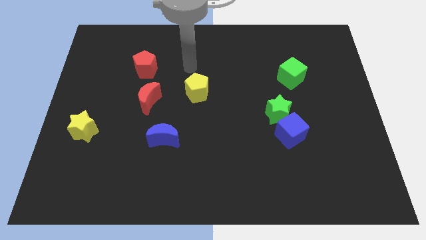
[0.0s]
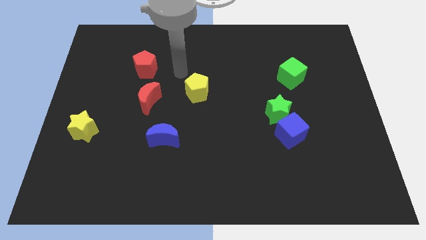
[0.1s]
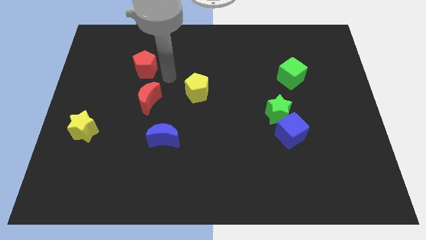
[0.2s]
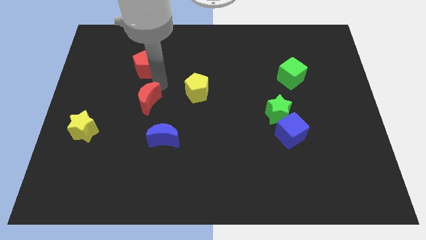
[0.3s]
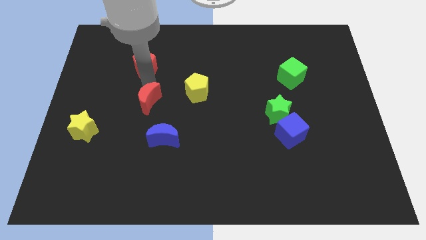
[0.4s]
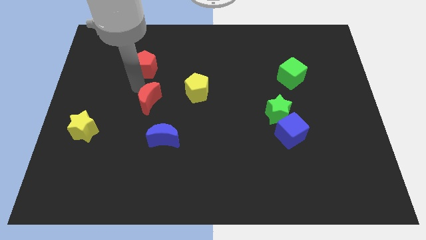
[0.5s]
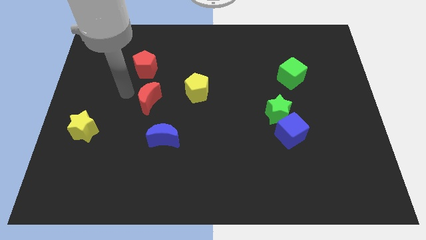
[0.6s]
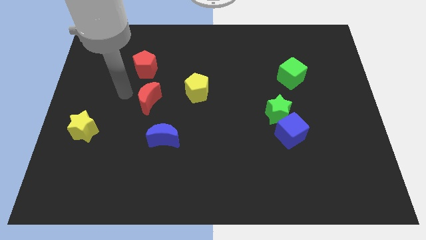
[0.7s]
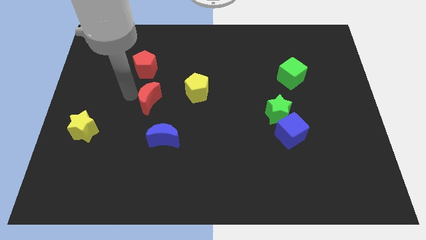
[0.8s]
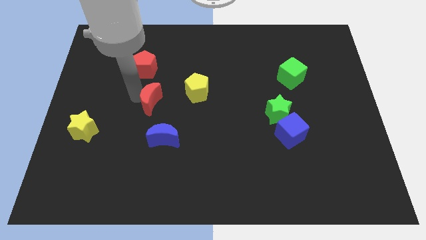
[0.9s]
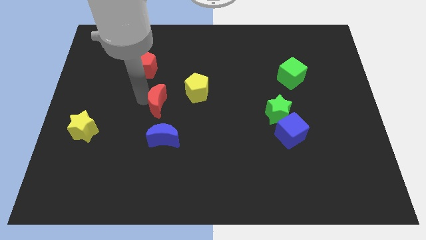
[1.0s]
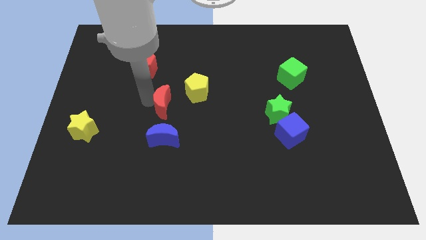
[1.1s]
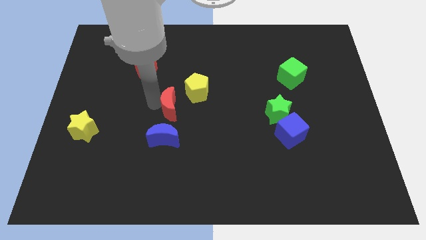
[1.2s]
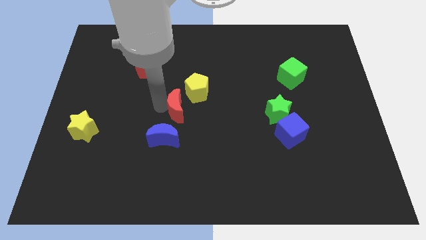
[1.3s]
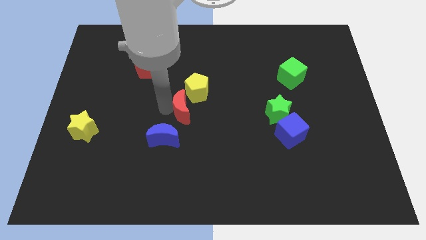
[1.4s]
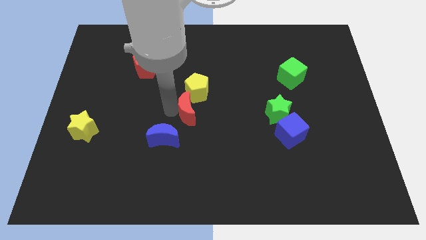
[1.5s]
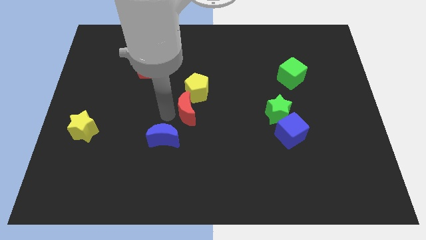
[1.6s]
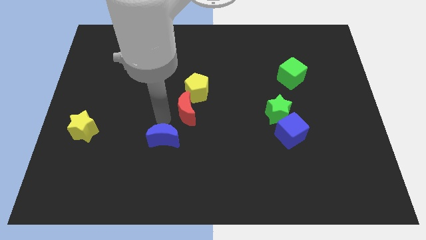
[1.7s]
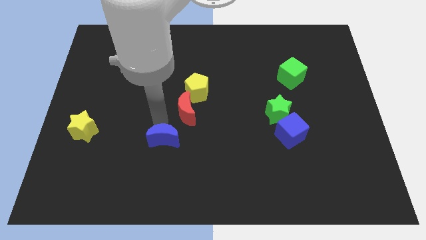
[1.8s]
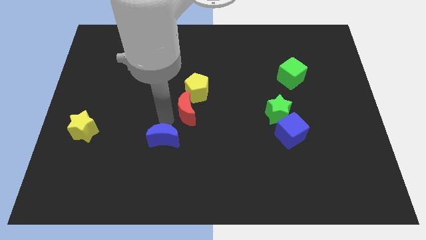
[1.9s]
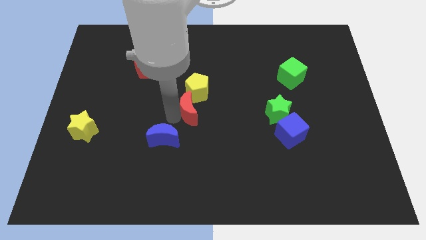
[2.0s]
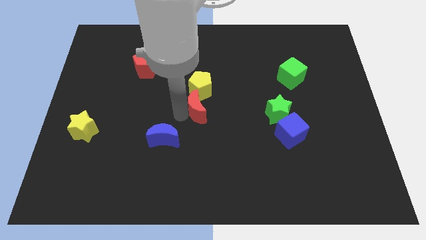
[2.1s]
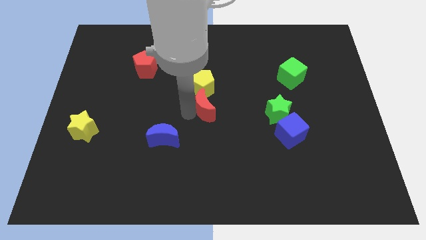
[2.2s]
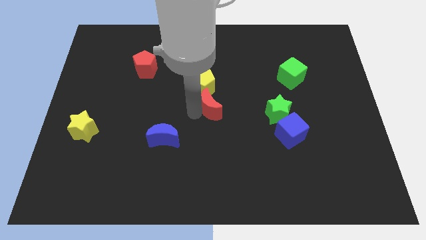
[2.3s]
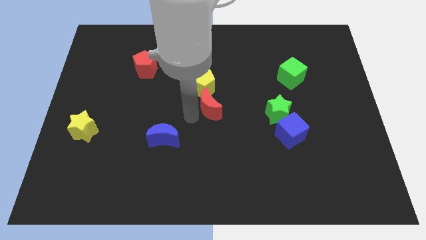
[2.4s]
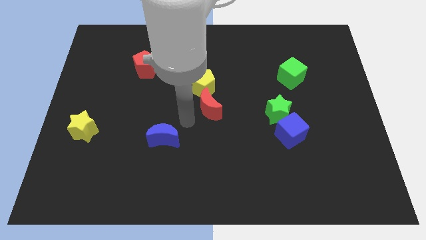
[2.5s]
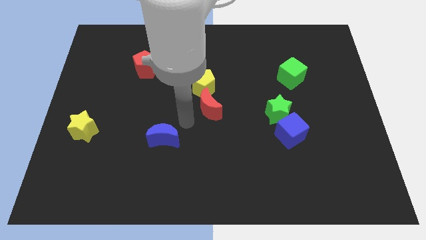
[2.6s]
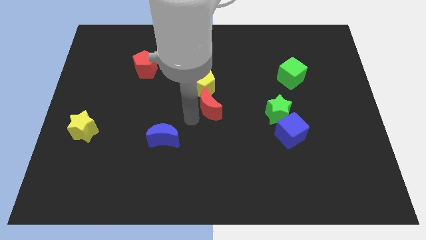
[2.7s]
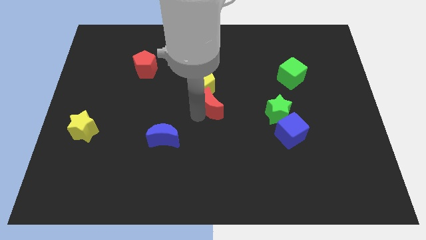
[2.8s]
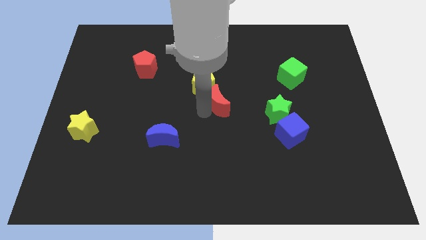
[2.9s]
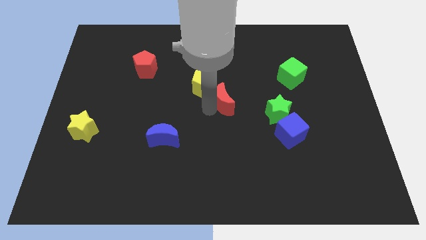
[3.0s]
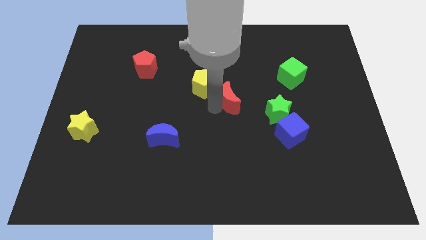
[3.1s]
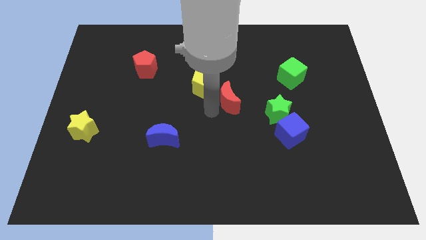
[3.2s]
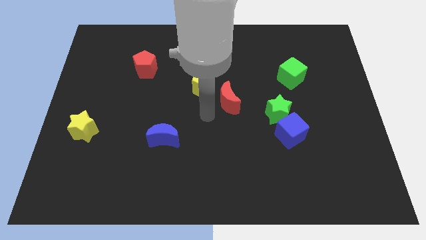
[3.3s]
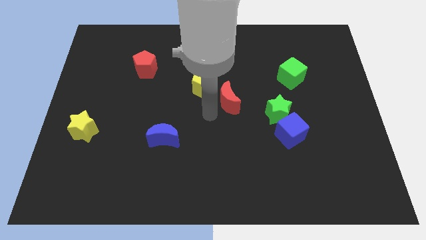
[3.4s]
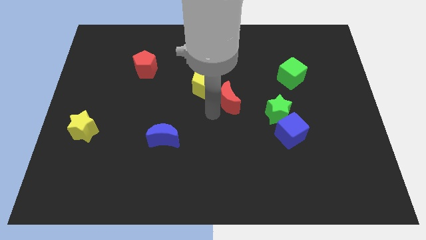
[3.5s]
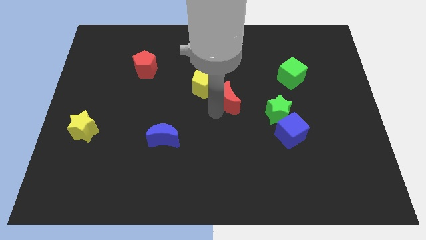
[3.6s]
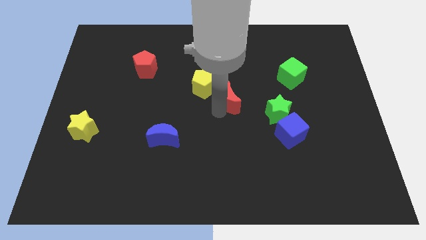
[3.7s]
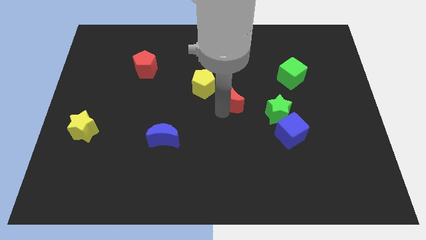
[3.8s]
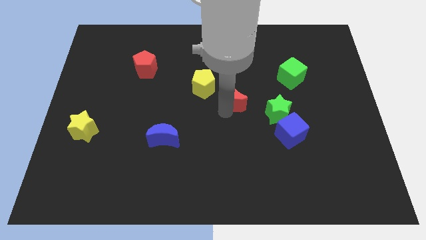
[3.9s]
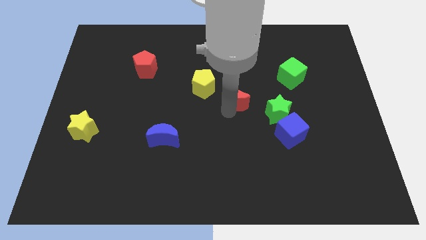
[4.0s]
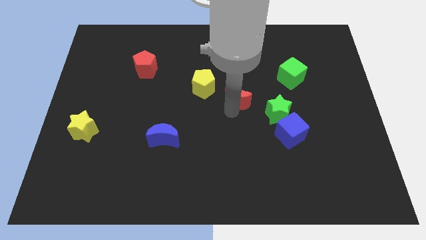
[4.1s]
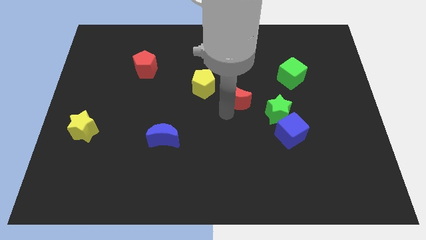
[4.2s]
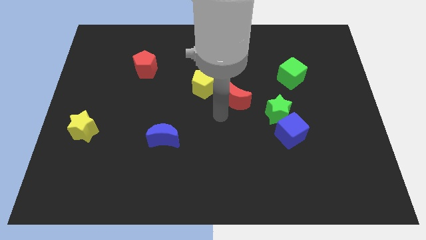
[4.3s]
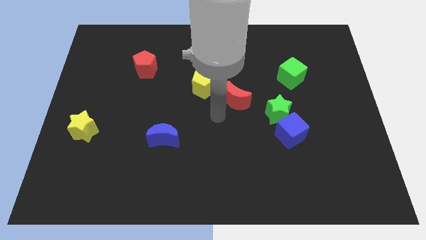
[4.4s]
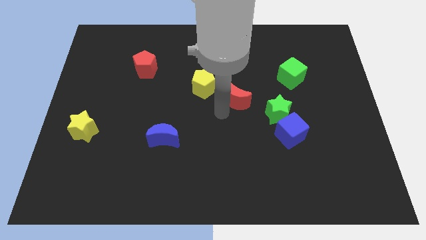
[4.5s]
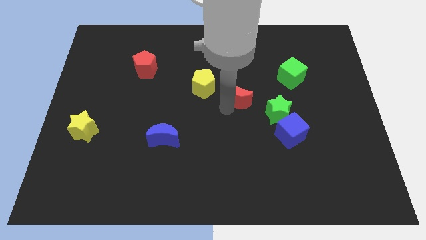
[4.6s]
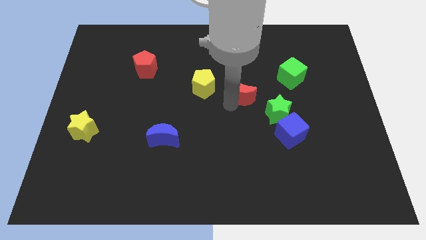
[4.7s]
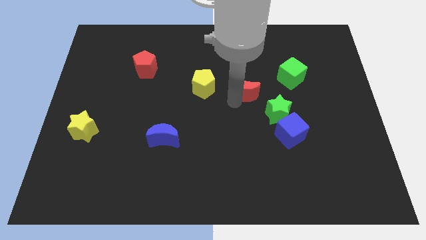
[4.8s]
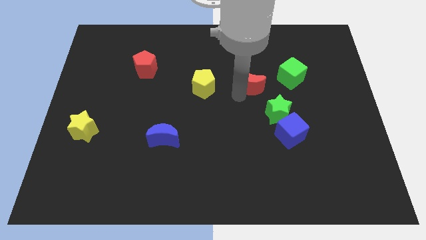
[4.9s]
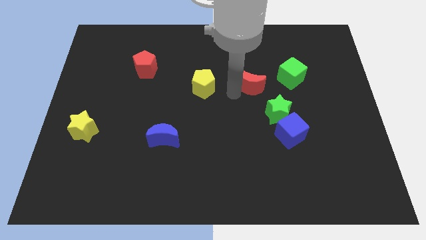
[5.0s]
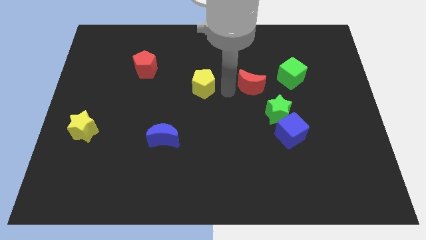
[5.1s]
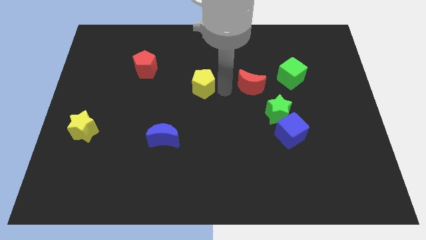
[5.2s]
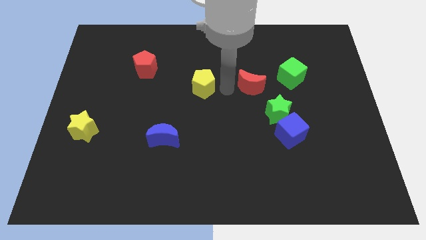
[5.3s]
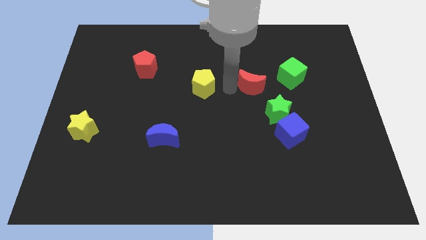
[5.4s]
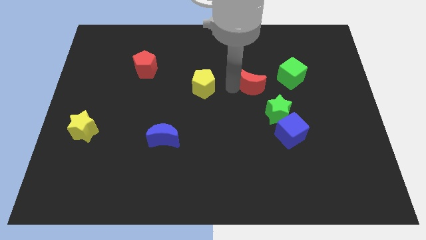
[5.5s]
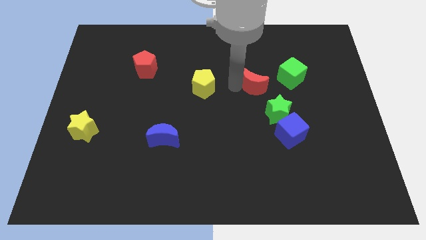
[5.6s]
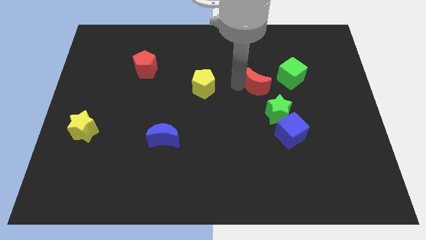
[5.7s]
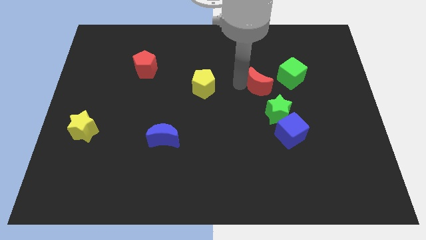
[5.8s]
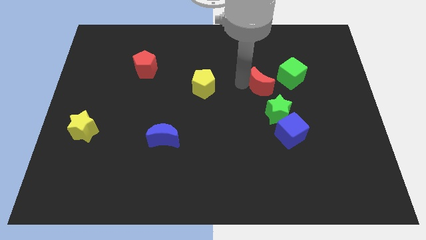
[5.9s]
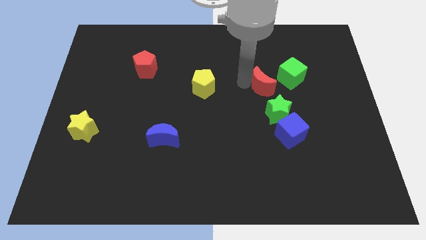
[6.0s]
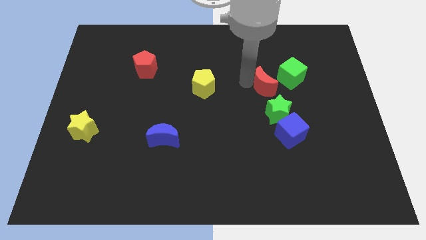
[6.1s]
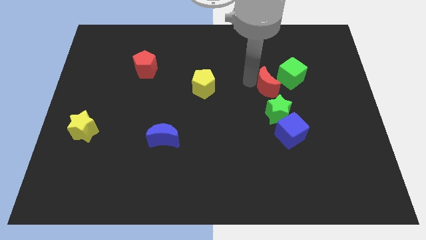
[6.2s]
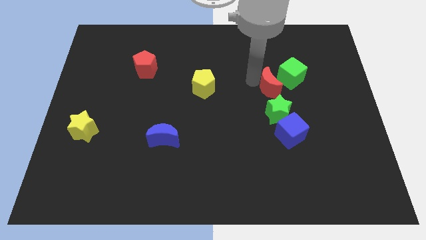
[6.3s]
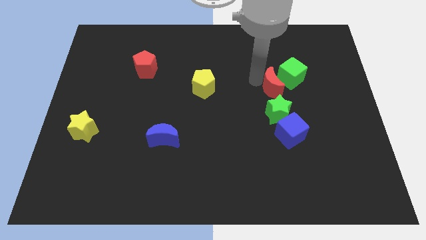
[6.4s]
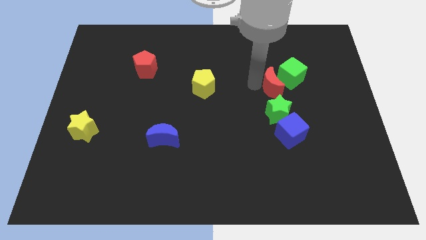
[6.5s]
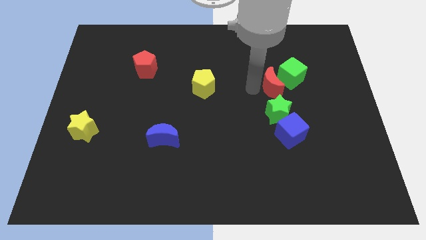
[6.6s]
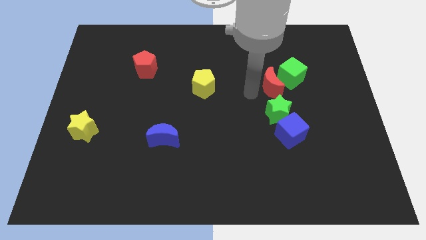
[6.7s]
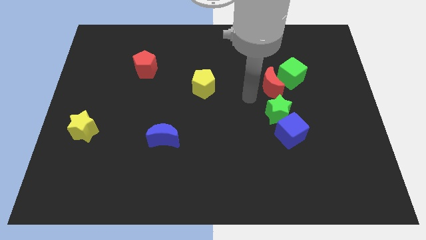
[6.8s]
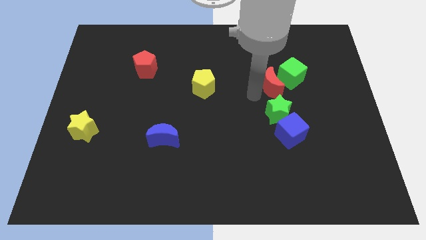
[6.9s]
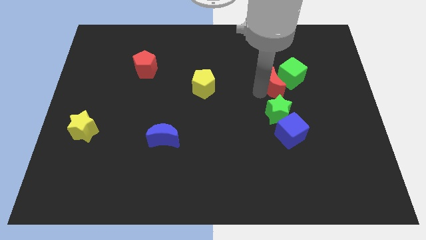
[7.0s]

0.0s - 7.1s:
slide the red moon close to the green cube
